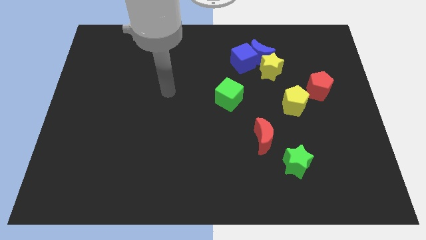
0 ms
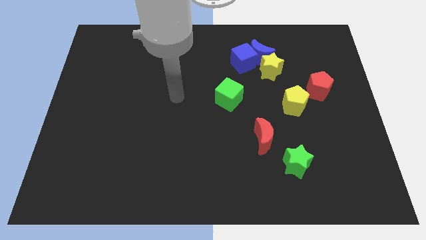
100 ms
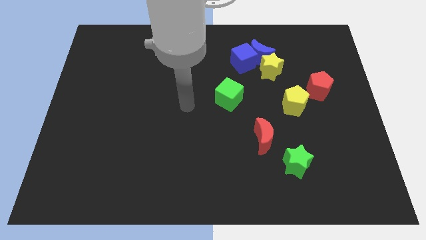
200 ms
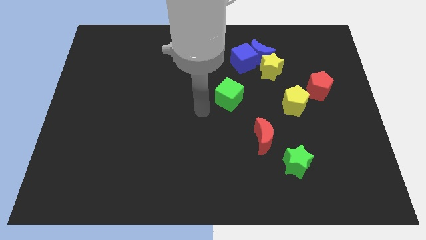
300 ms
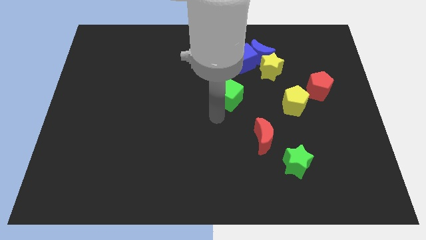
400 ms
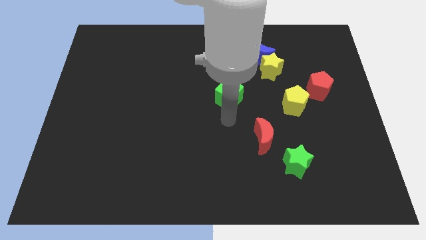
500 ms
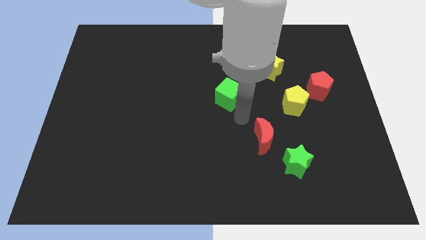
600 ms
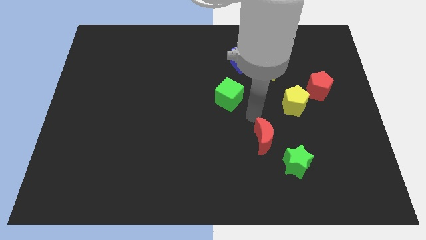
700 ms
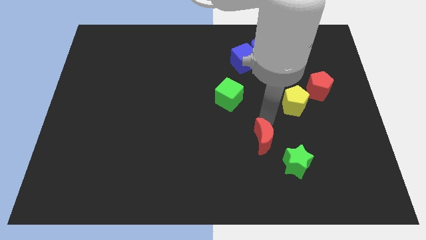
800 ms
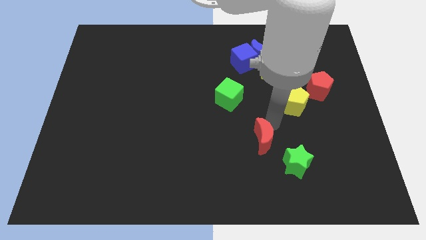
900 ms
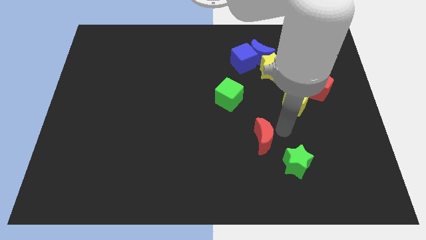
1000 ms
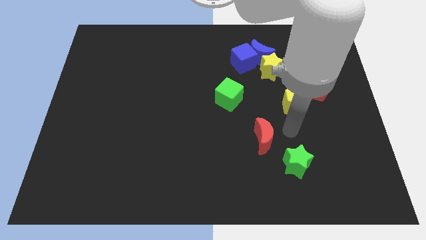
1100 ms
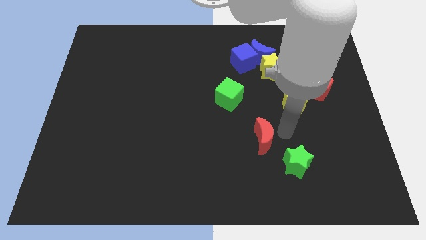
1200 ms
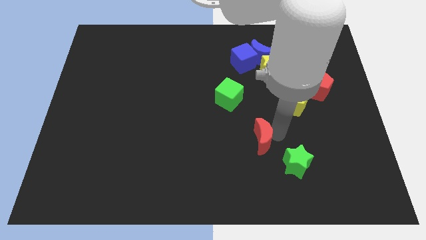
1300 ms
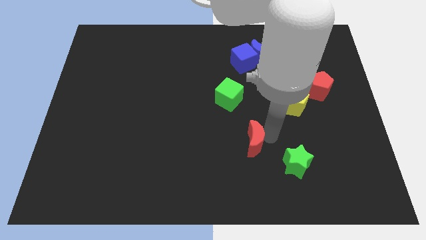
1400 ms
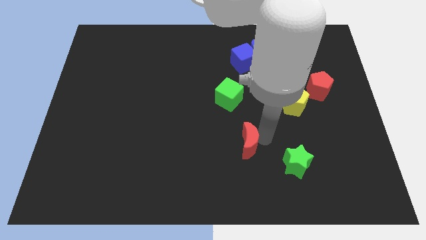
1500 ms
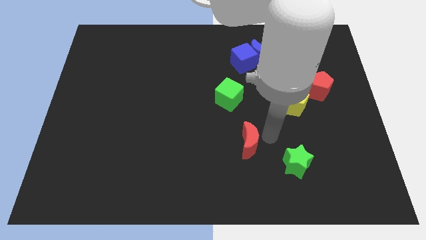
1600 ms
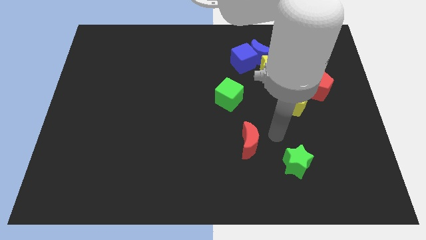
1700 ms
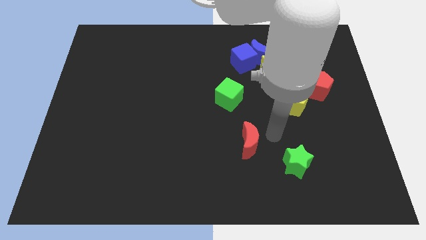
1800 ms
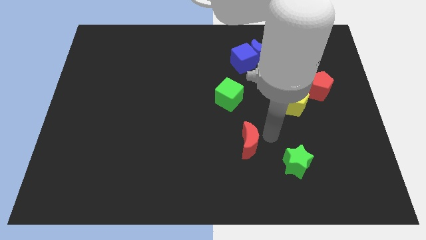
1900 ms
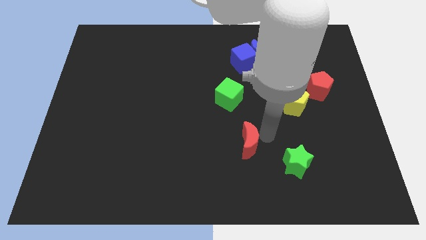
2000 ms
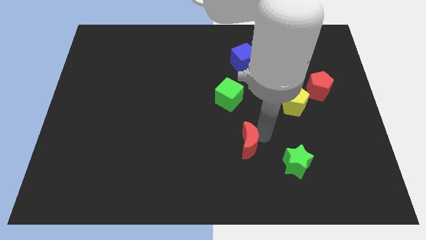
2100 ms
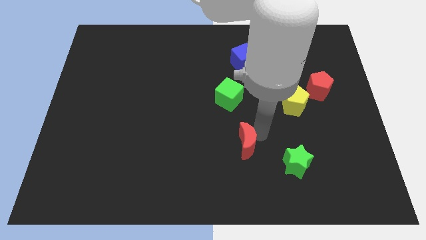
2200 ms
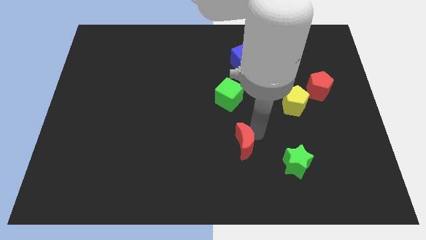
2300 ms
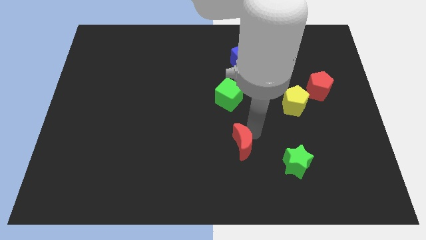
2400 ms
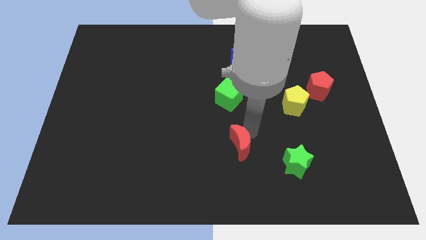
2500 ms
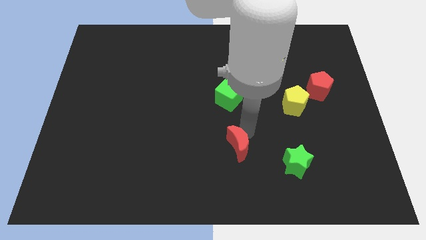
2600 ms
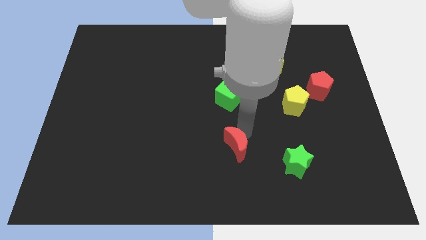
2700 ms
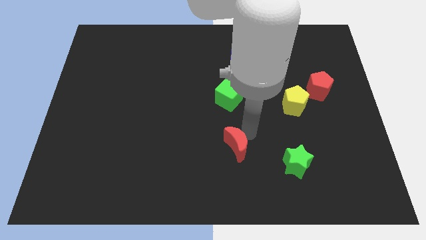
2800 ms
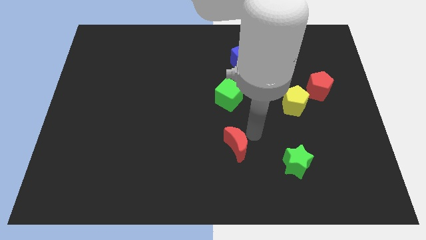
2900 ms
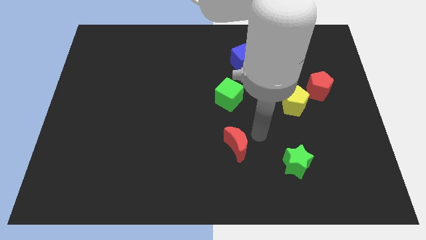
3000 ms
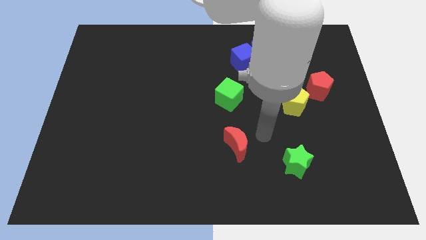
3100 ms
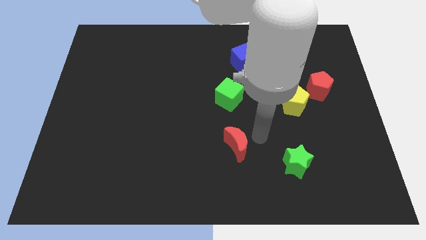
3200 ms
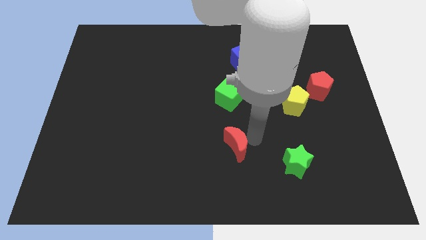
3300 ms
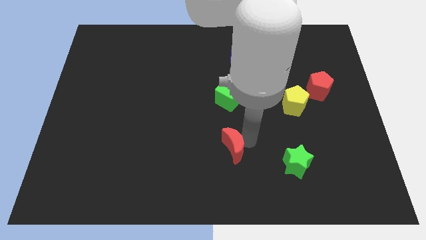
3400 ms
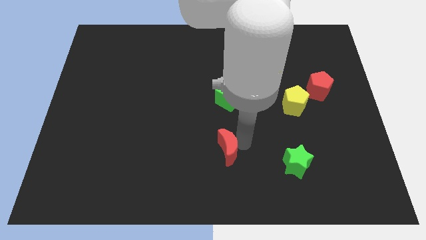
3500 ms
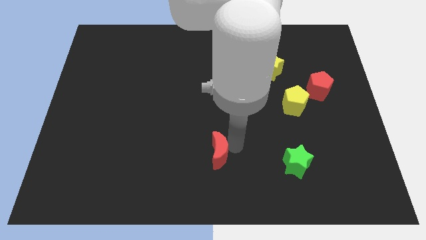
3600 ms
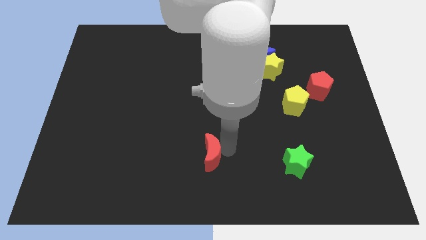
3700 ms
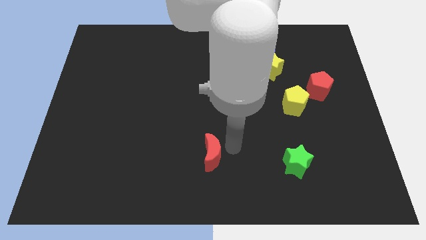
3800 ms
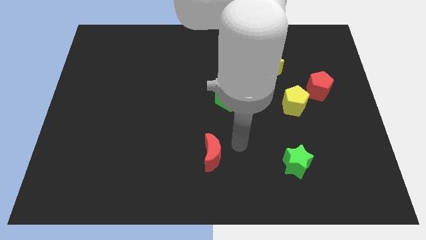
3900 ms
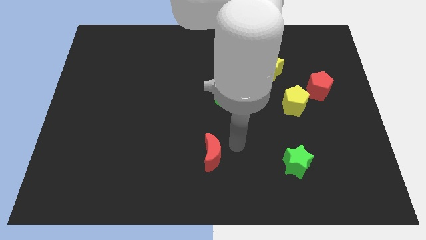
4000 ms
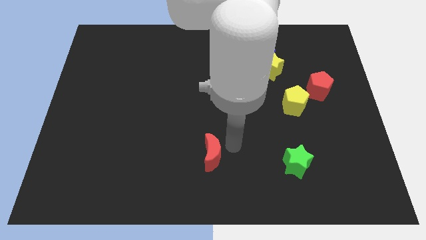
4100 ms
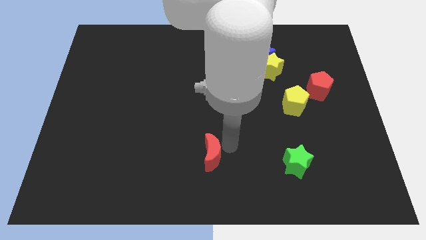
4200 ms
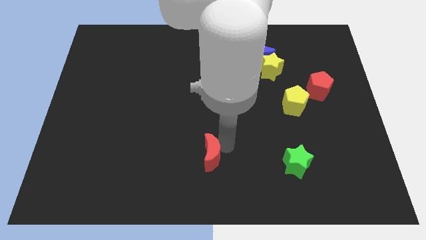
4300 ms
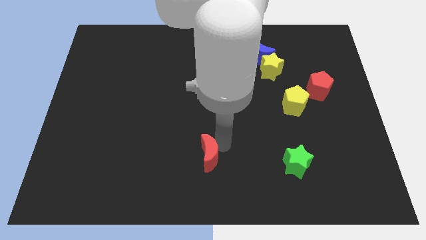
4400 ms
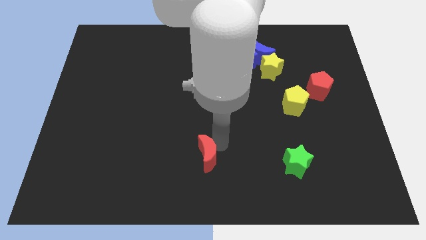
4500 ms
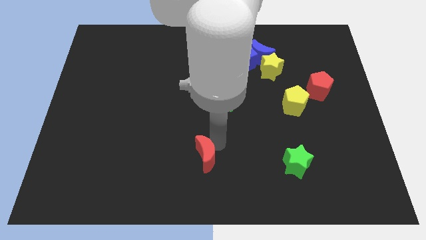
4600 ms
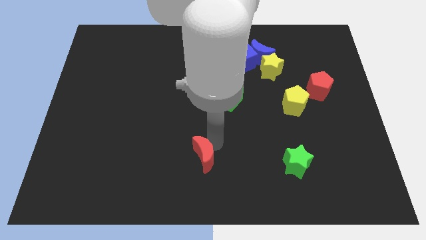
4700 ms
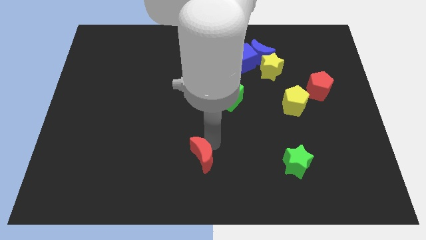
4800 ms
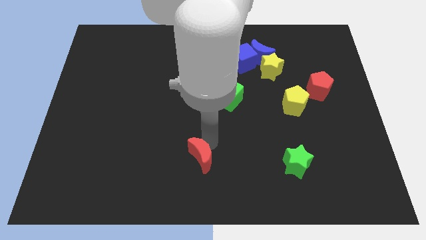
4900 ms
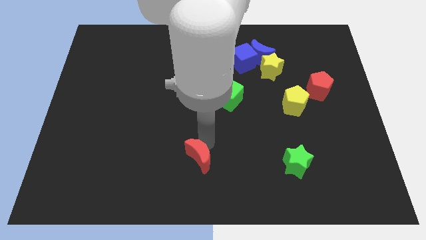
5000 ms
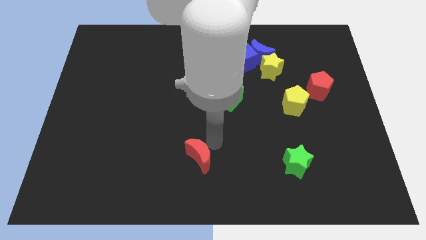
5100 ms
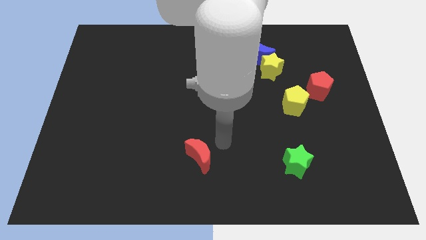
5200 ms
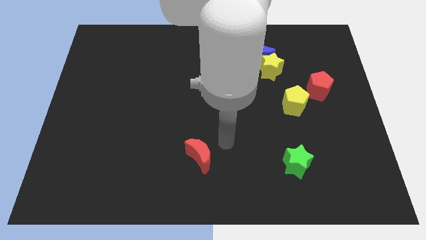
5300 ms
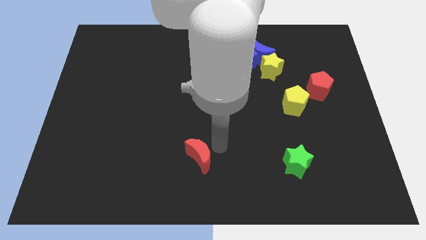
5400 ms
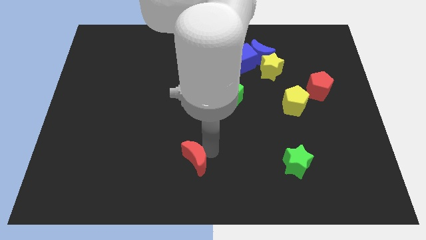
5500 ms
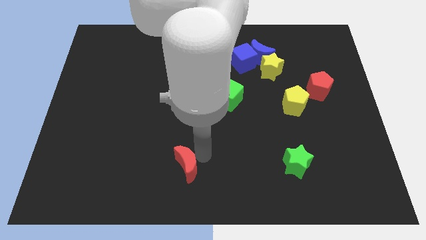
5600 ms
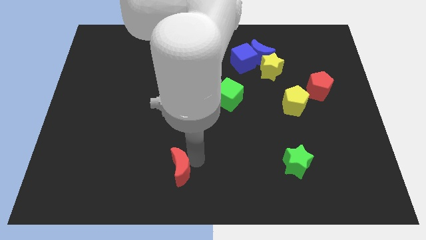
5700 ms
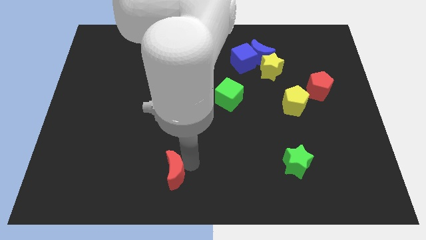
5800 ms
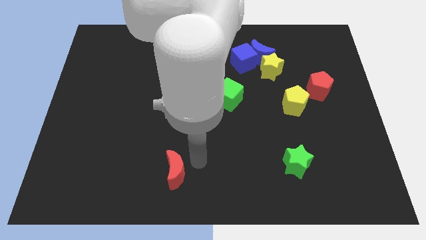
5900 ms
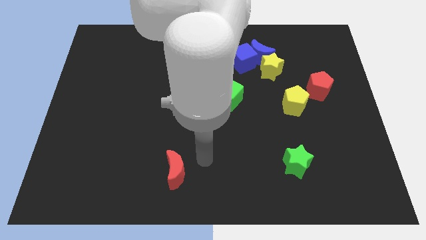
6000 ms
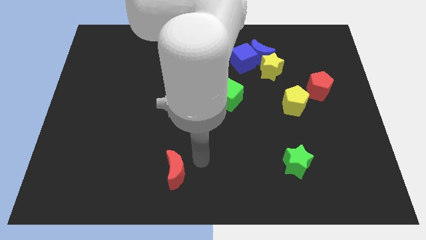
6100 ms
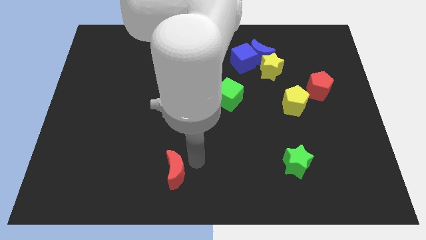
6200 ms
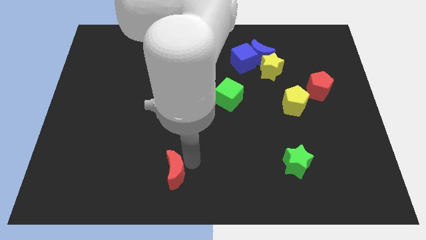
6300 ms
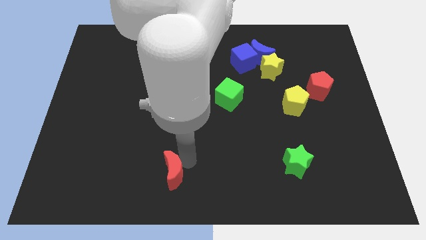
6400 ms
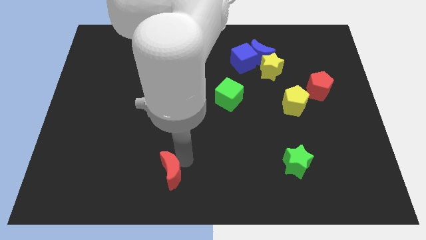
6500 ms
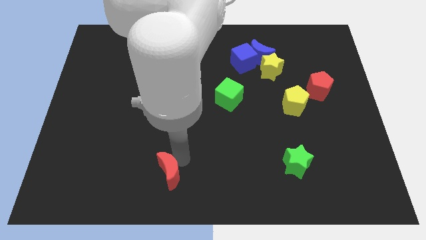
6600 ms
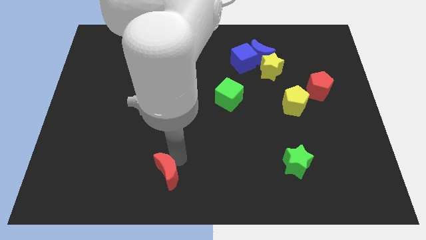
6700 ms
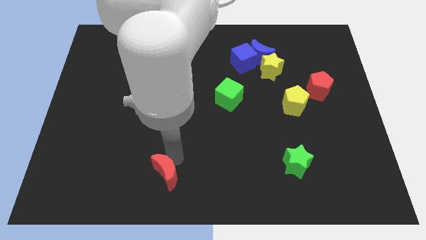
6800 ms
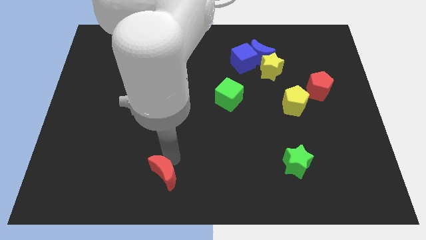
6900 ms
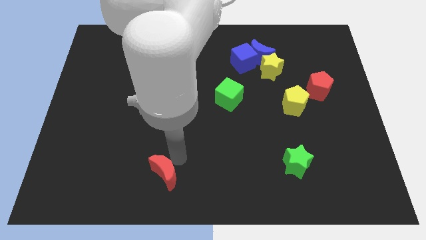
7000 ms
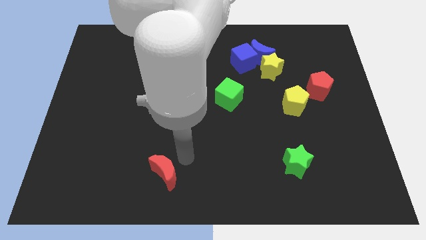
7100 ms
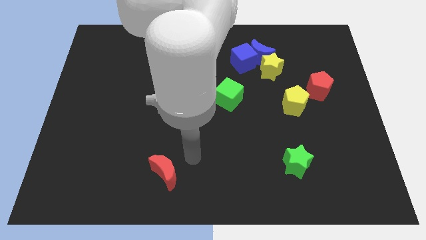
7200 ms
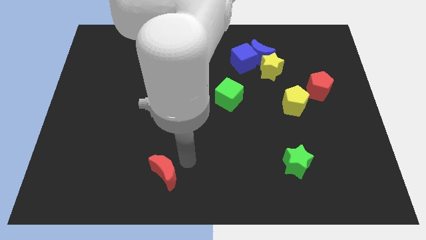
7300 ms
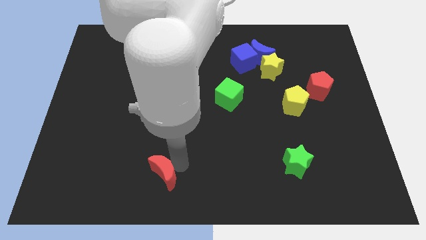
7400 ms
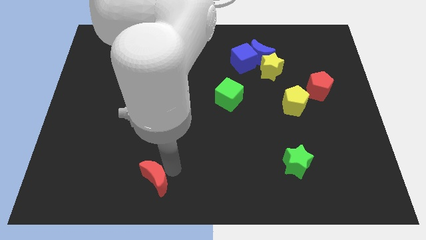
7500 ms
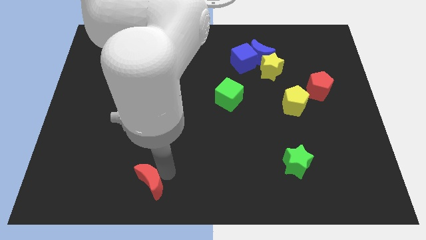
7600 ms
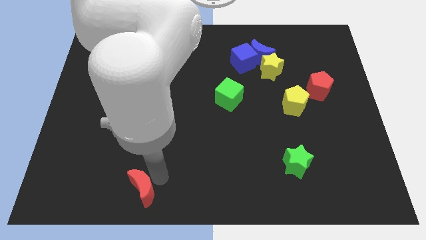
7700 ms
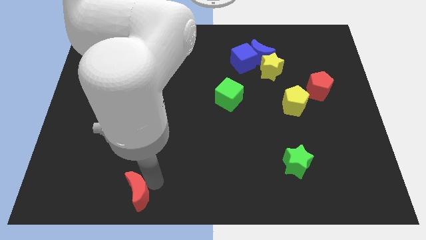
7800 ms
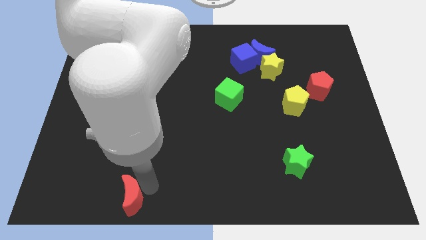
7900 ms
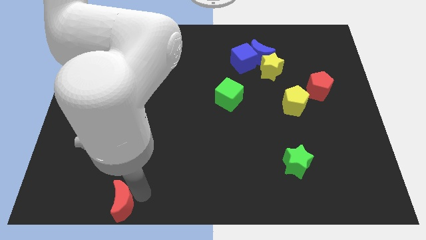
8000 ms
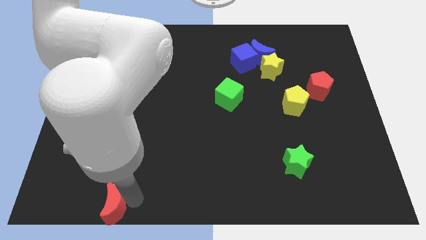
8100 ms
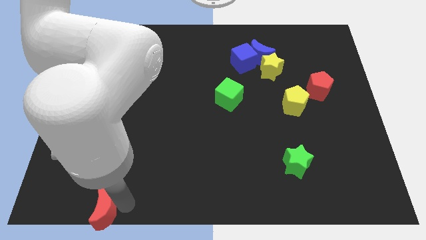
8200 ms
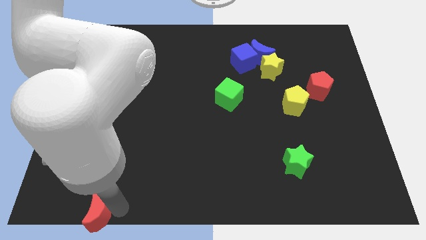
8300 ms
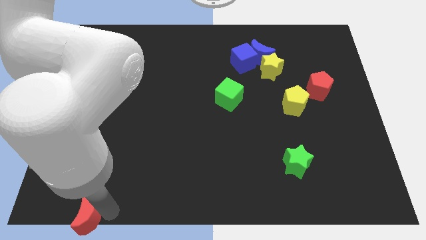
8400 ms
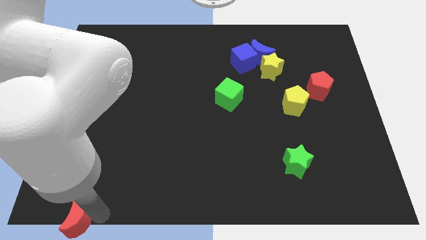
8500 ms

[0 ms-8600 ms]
slide the red moon to the bottom left
